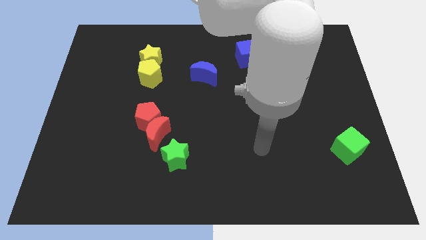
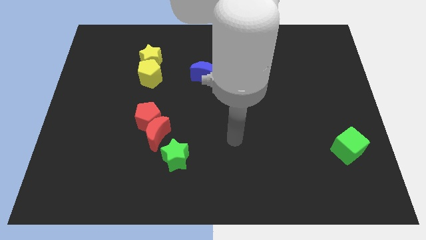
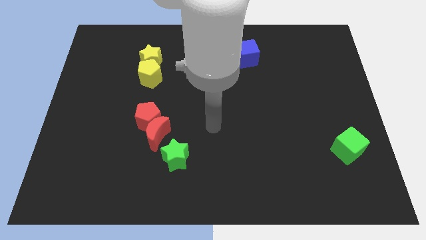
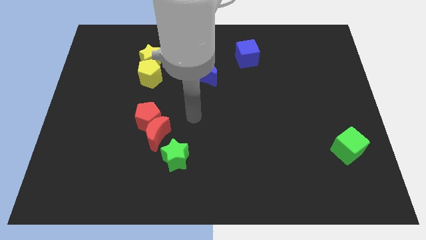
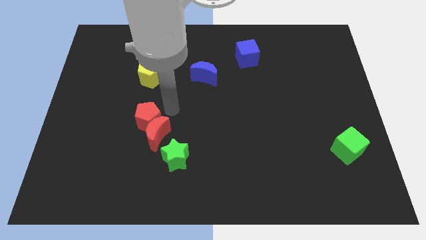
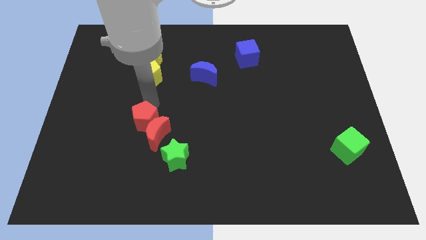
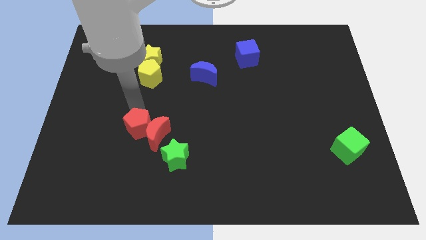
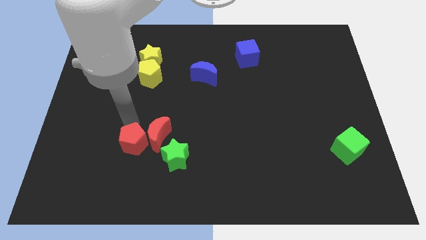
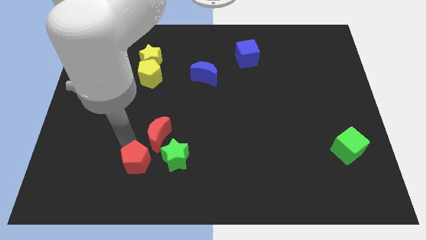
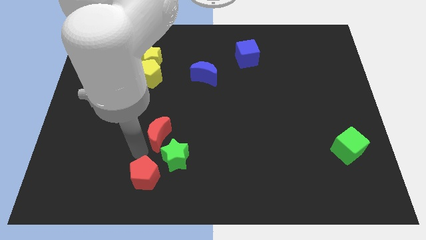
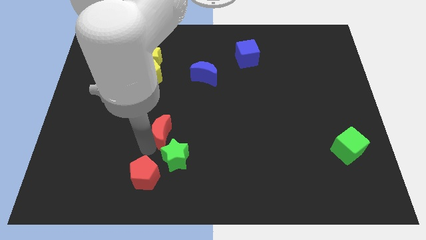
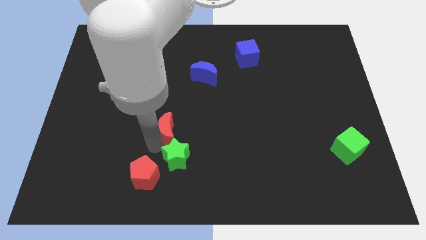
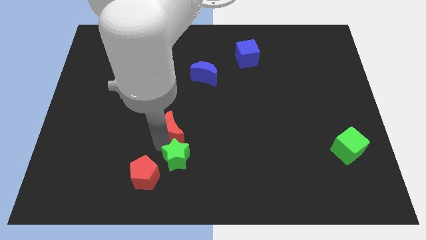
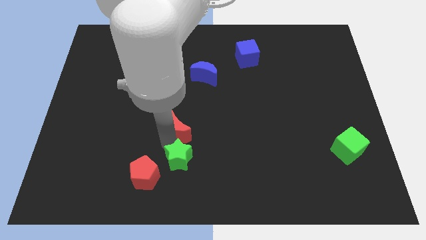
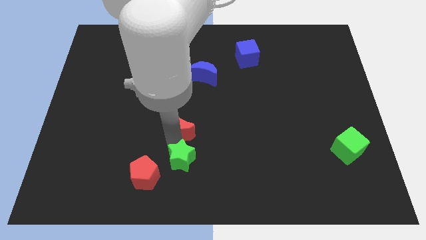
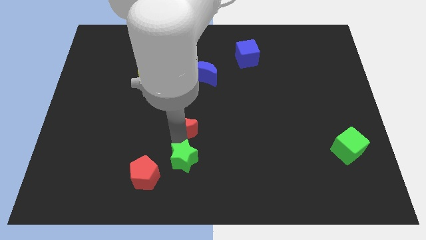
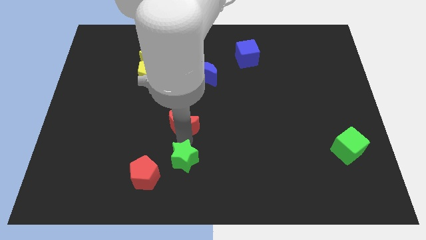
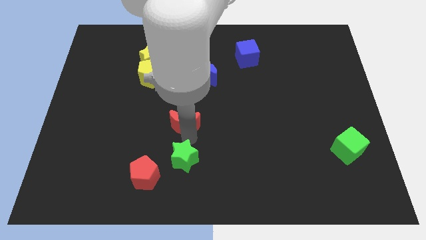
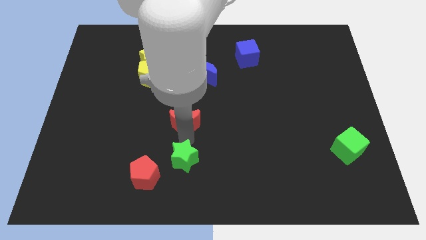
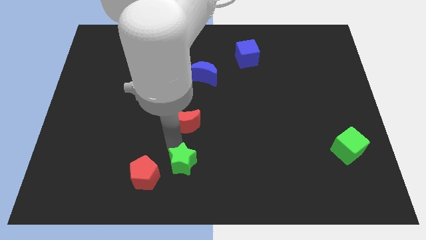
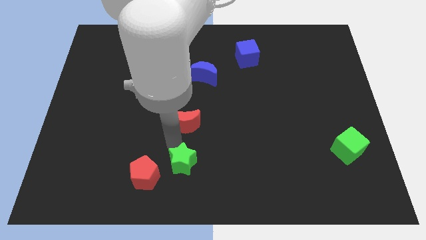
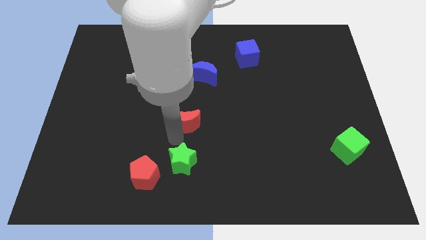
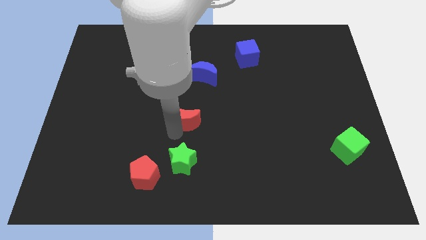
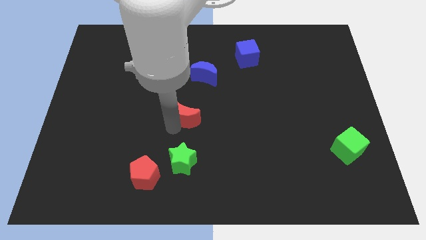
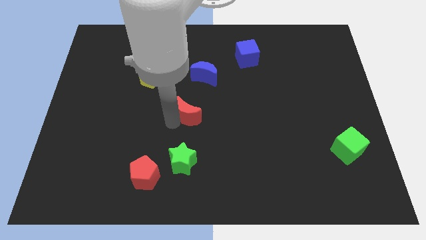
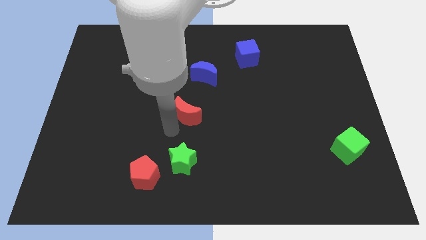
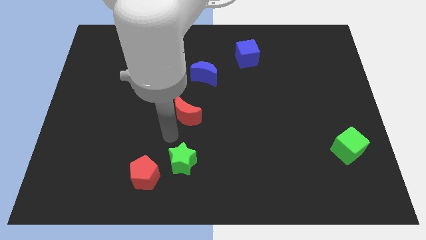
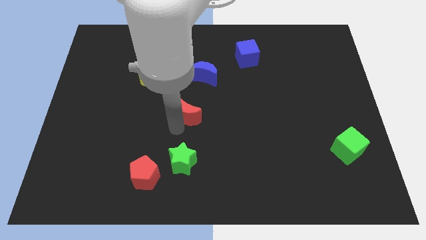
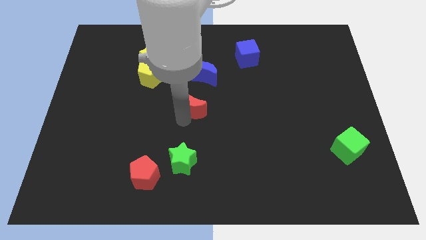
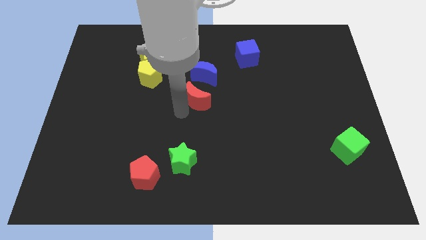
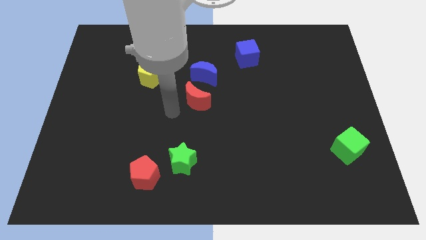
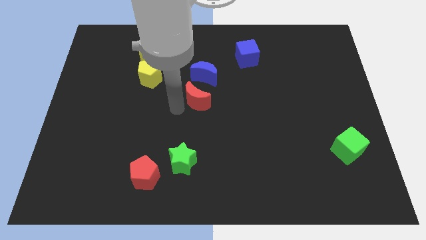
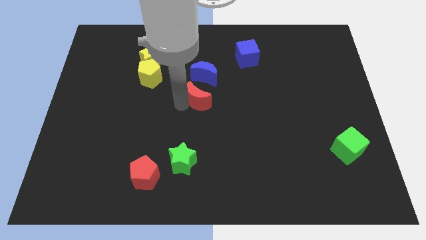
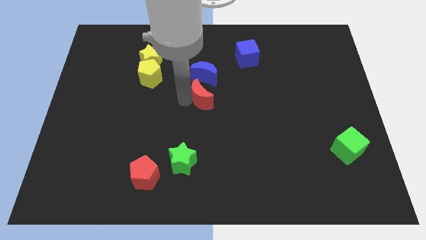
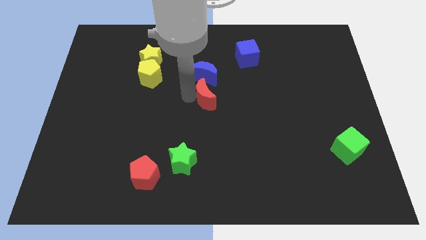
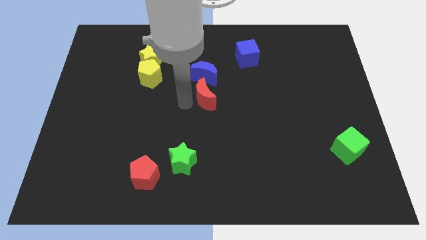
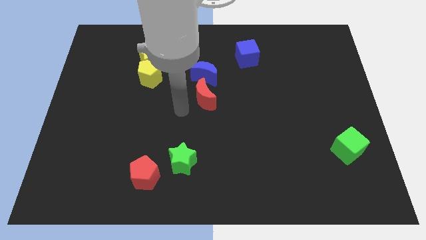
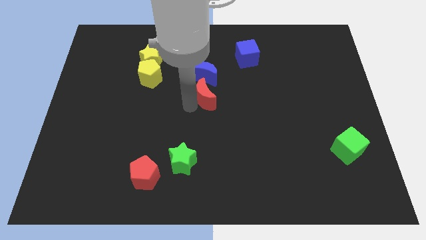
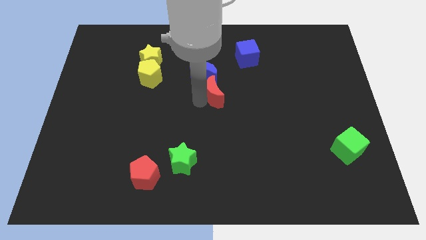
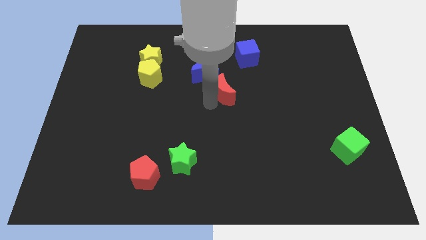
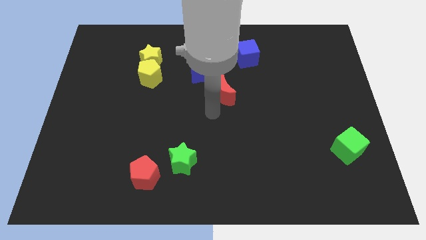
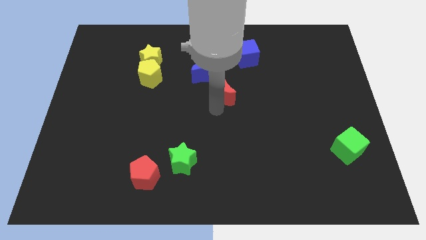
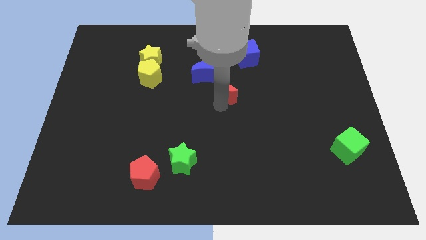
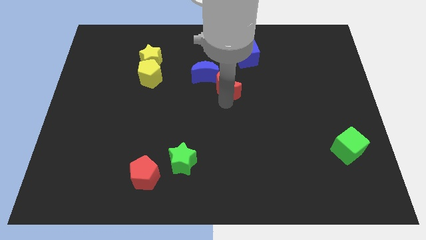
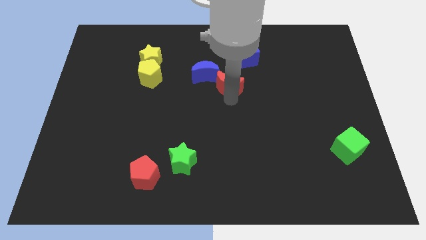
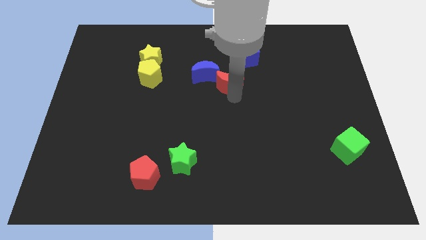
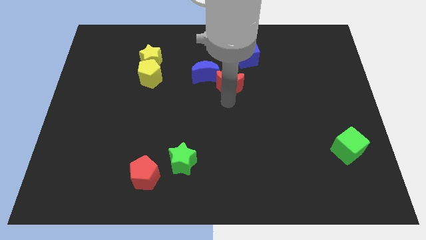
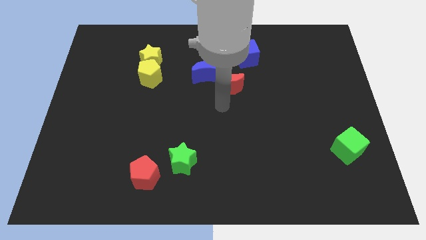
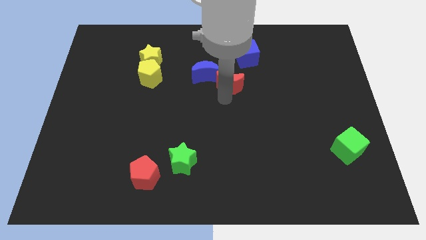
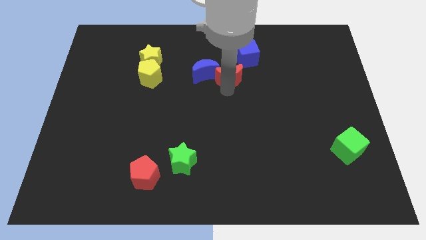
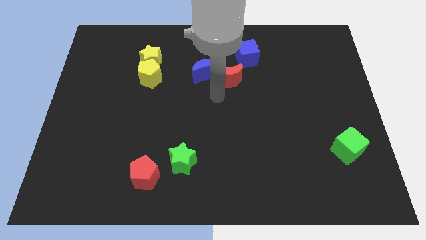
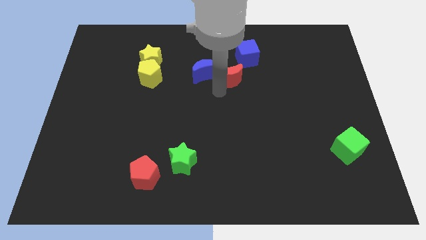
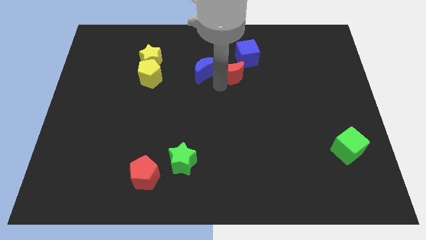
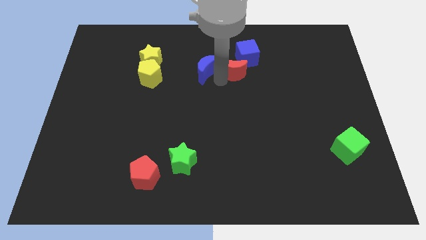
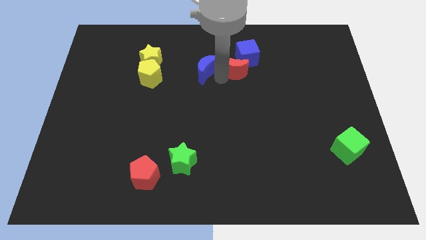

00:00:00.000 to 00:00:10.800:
push the red moon to the blue cube
